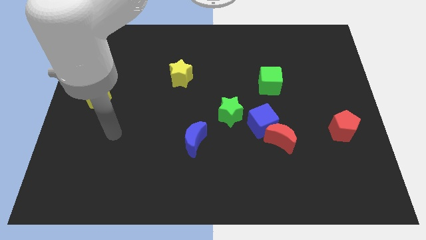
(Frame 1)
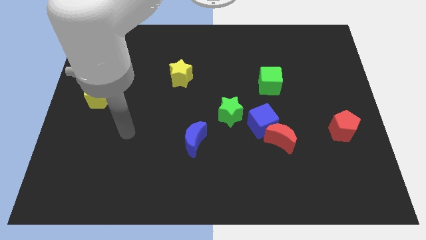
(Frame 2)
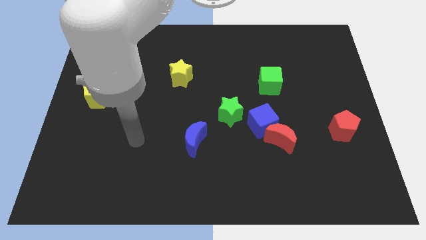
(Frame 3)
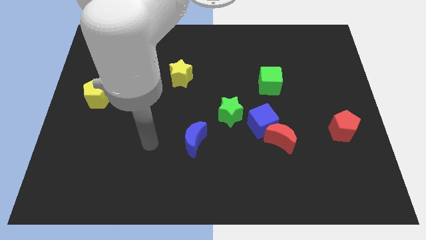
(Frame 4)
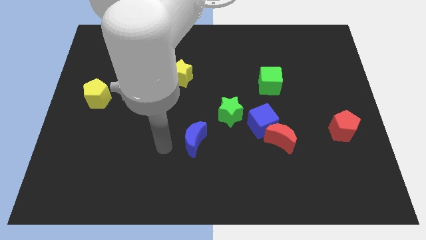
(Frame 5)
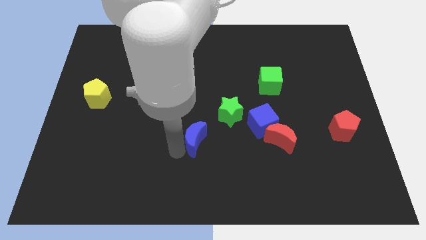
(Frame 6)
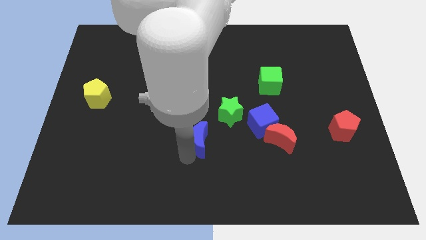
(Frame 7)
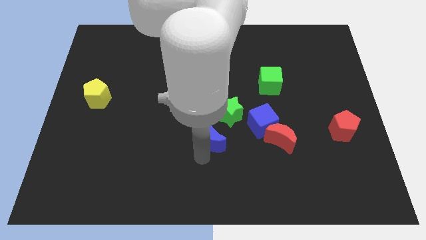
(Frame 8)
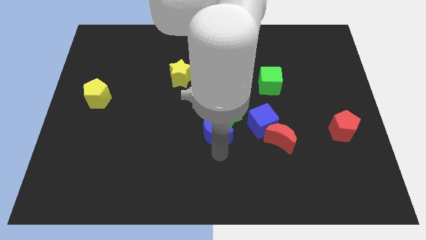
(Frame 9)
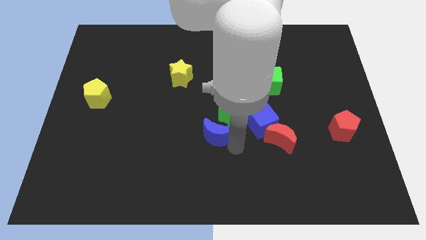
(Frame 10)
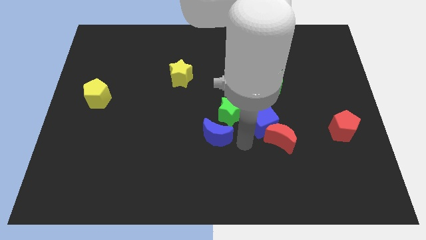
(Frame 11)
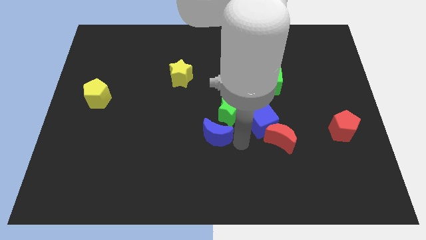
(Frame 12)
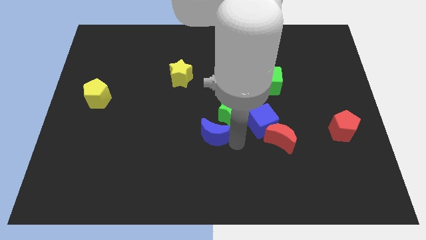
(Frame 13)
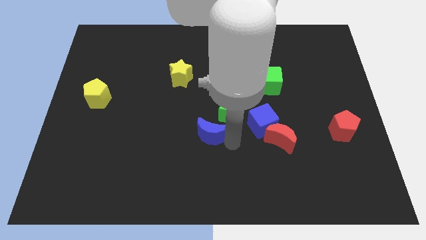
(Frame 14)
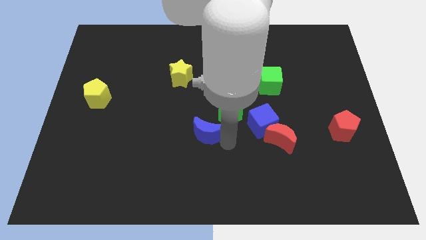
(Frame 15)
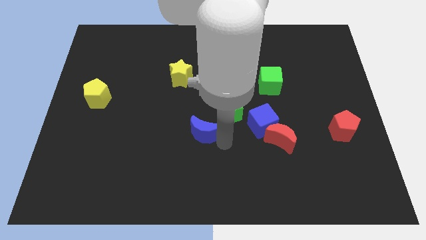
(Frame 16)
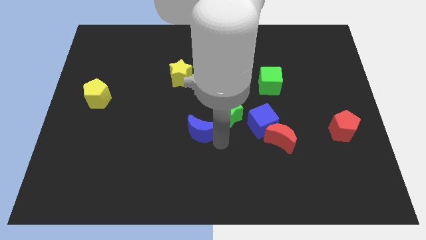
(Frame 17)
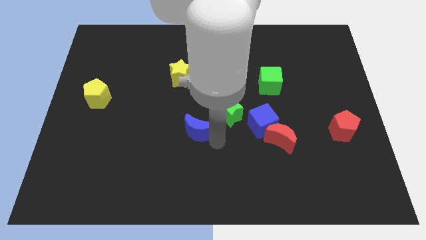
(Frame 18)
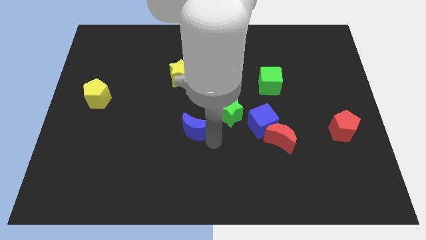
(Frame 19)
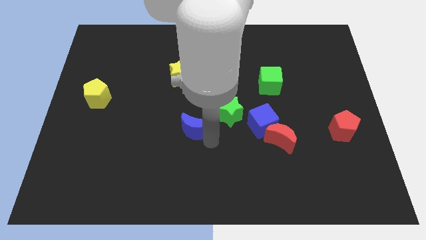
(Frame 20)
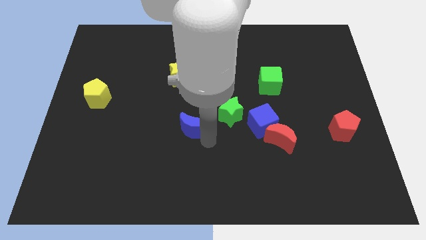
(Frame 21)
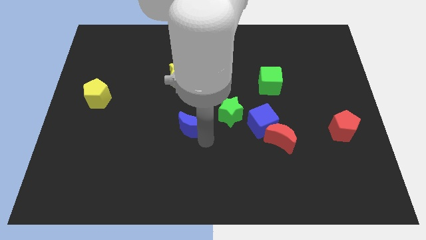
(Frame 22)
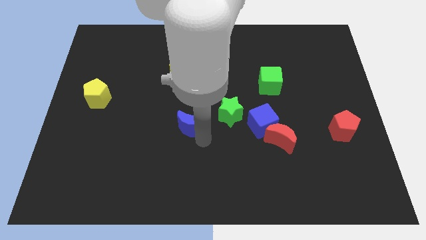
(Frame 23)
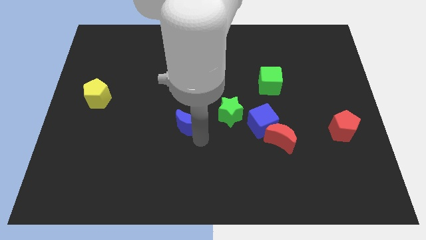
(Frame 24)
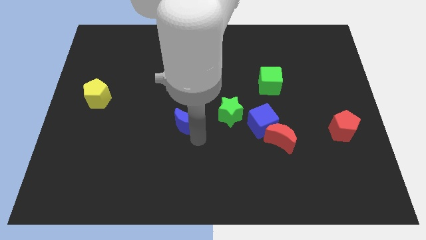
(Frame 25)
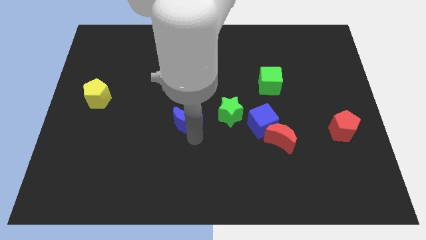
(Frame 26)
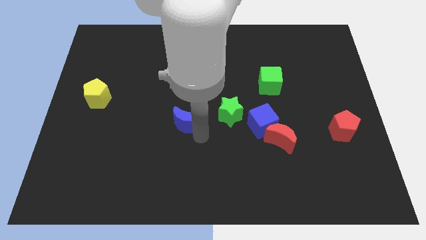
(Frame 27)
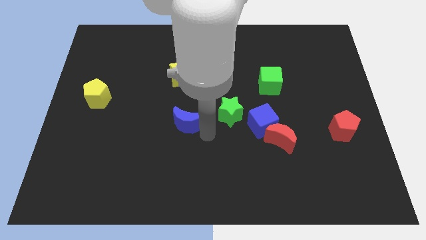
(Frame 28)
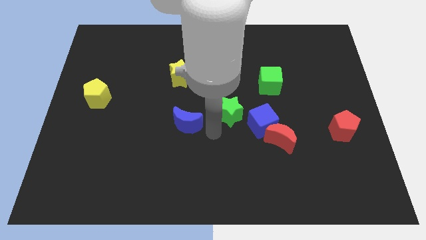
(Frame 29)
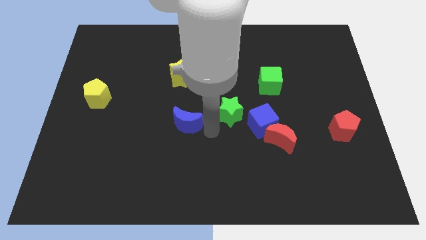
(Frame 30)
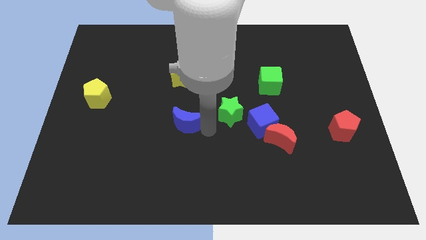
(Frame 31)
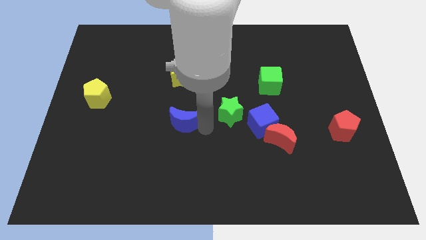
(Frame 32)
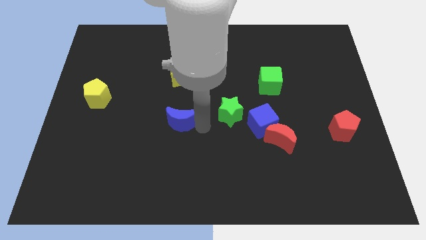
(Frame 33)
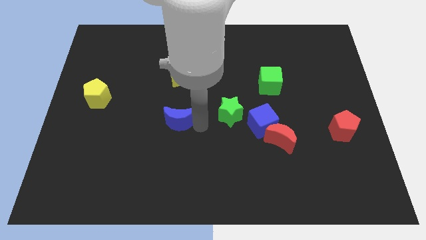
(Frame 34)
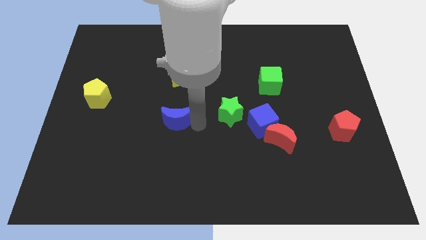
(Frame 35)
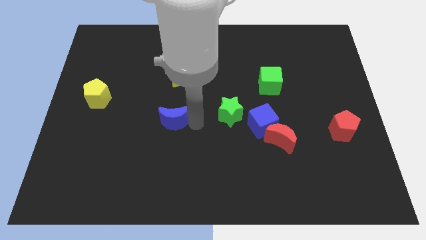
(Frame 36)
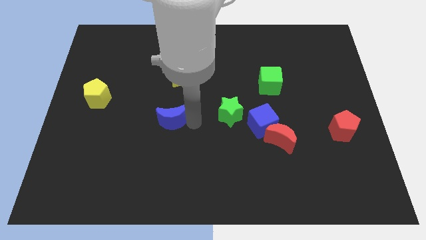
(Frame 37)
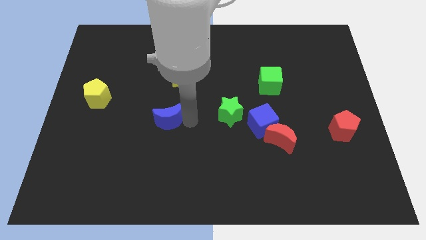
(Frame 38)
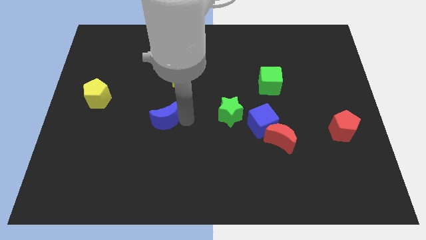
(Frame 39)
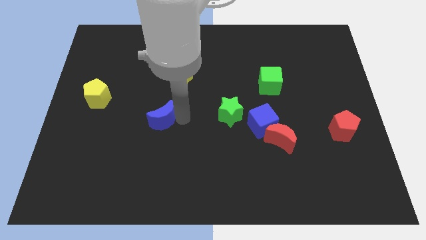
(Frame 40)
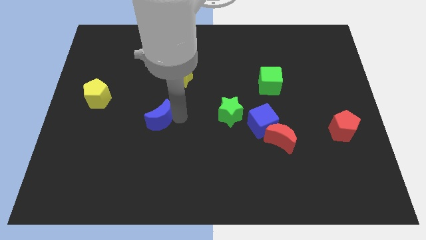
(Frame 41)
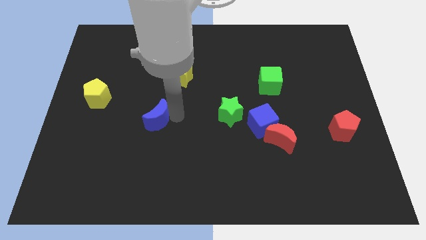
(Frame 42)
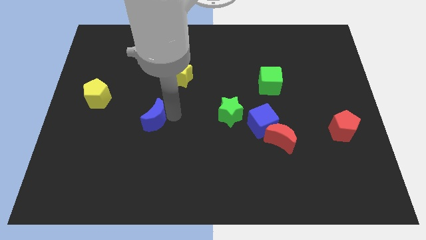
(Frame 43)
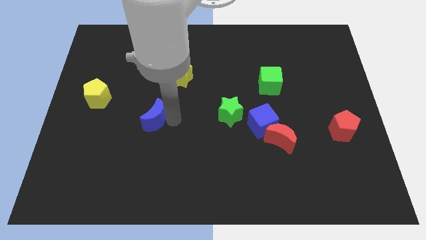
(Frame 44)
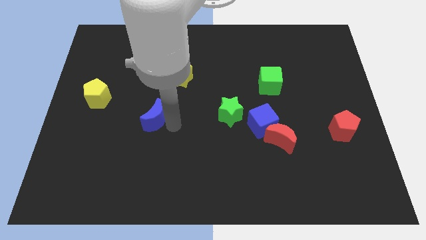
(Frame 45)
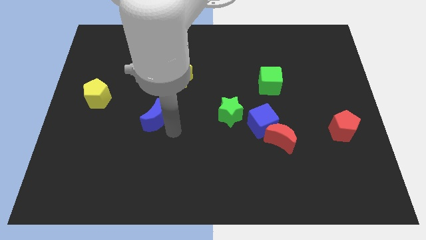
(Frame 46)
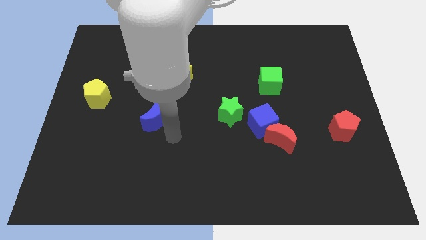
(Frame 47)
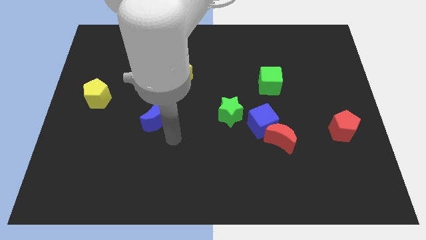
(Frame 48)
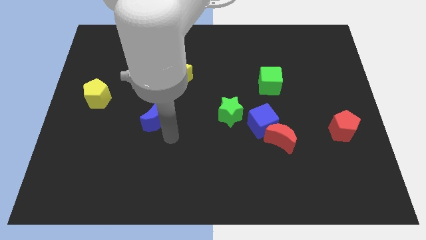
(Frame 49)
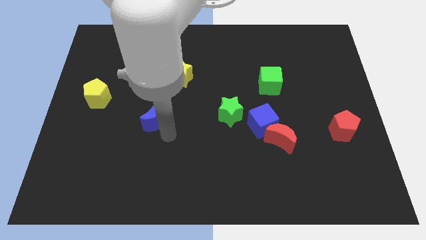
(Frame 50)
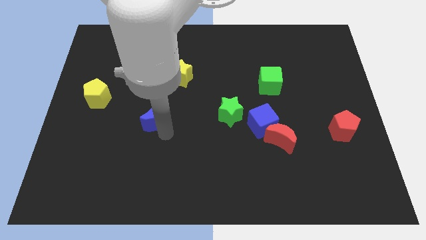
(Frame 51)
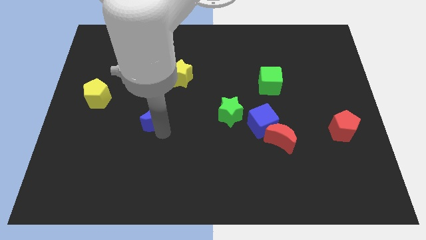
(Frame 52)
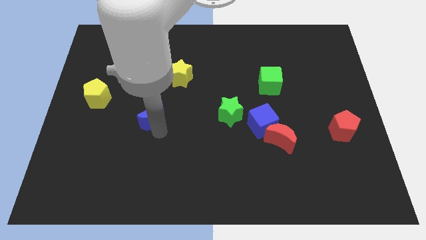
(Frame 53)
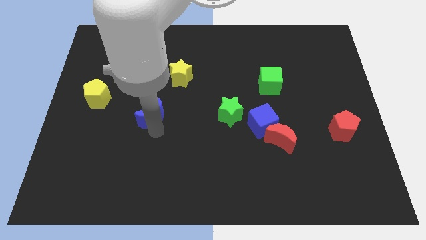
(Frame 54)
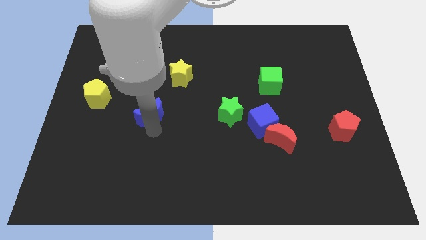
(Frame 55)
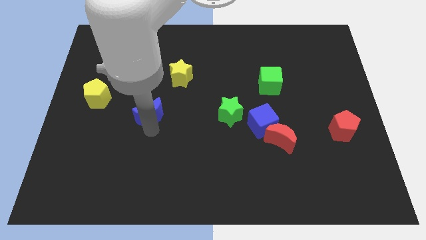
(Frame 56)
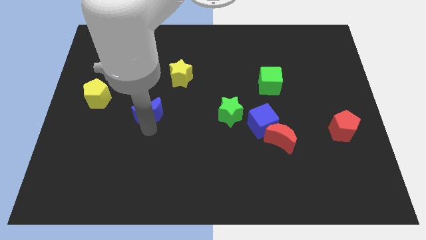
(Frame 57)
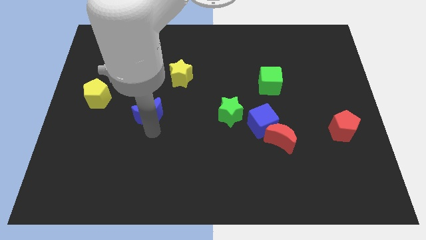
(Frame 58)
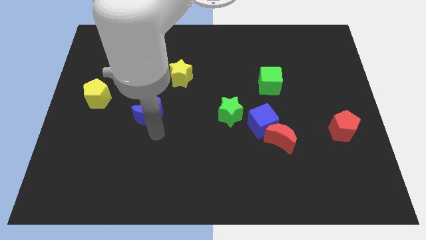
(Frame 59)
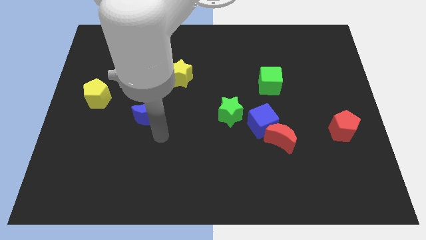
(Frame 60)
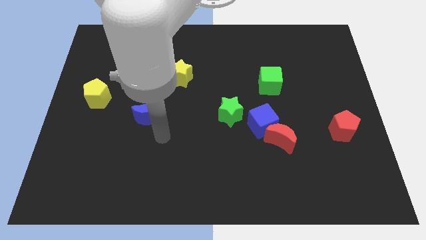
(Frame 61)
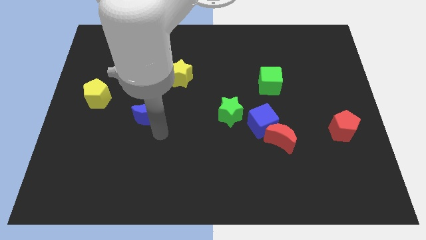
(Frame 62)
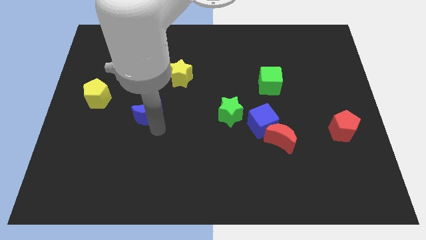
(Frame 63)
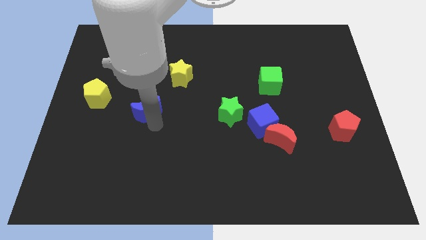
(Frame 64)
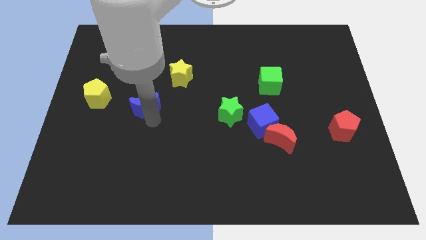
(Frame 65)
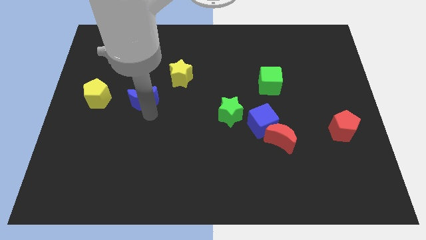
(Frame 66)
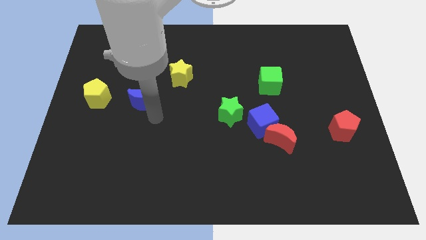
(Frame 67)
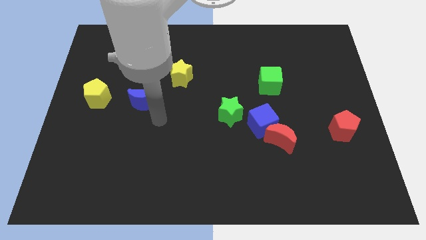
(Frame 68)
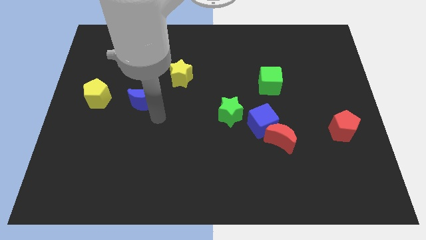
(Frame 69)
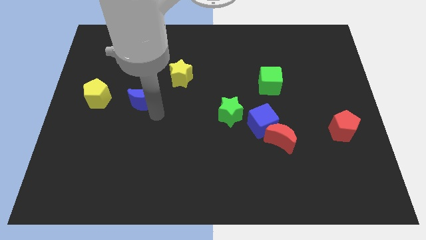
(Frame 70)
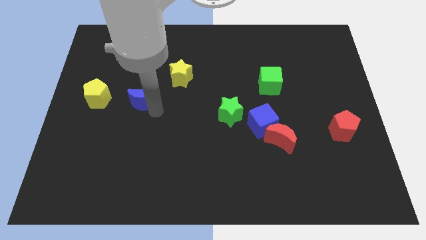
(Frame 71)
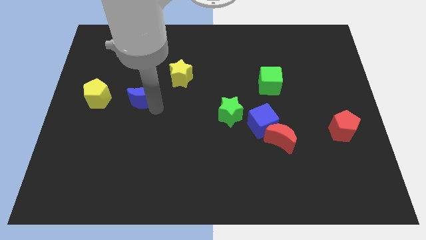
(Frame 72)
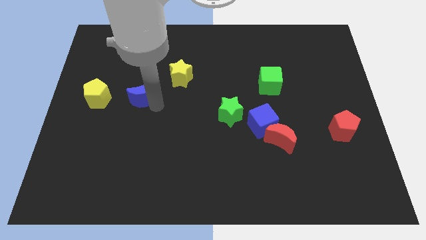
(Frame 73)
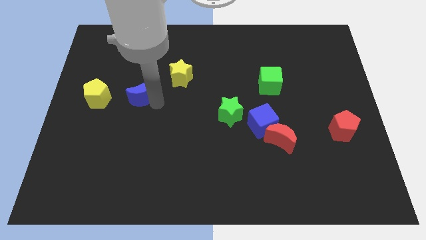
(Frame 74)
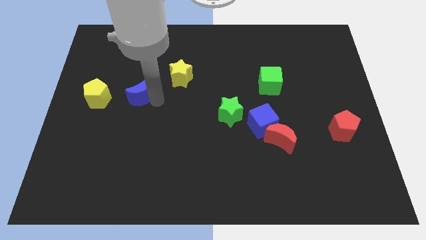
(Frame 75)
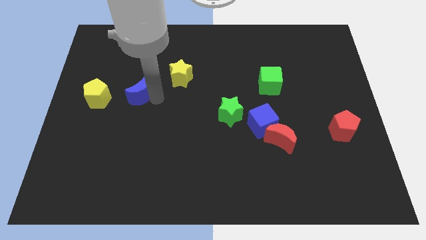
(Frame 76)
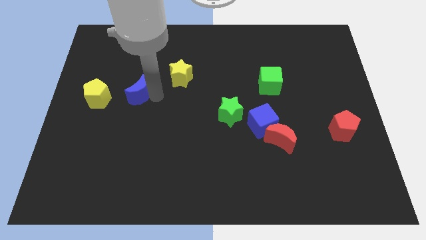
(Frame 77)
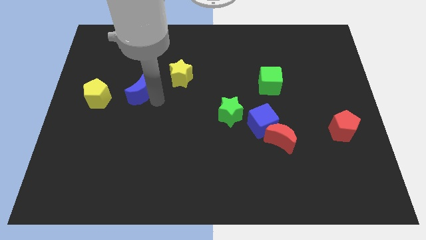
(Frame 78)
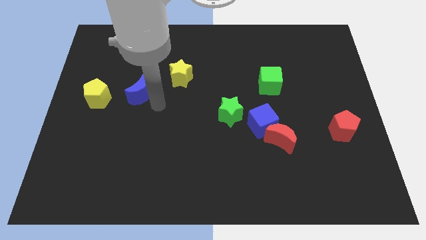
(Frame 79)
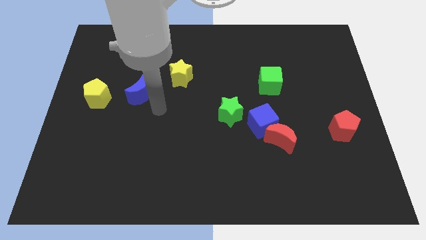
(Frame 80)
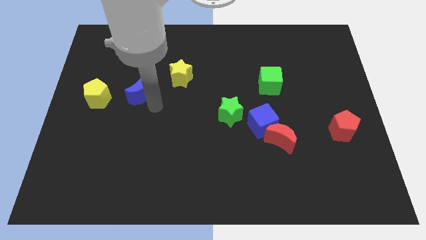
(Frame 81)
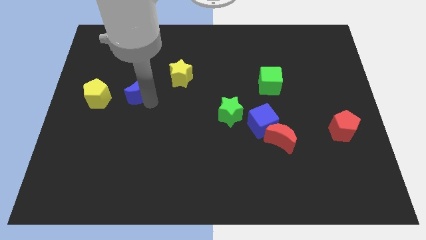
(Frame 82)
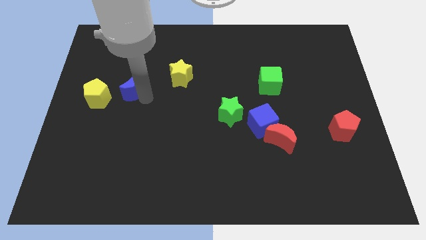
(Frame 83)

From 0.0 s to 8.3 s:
push the blue moon upwards and left
